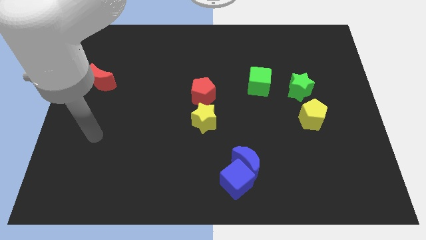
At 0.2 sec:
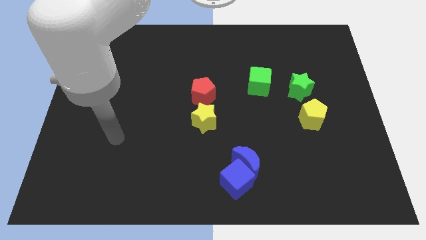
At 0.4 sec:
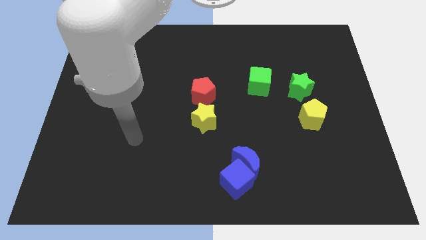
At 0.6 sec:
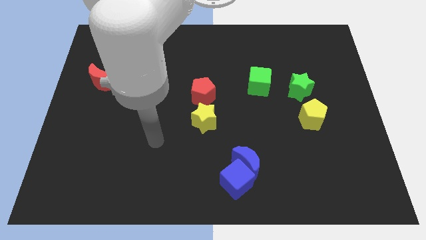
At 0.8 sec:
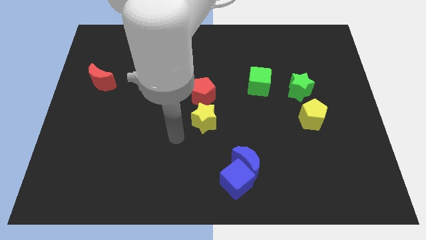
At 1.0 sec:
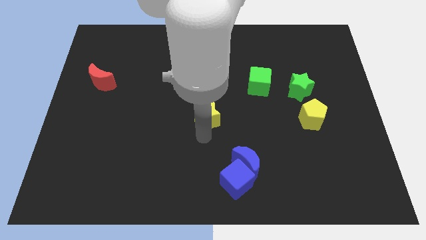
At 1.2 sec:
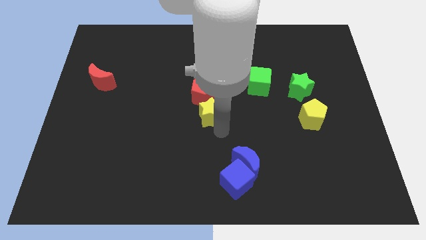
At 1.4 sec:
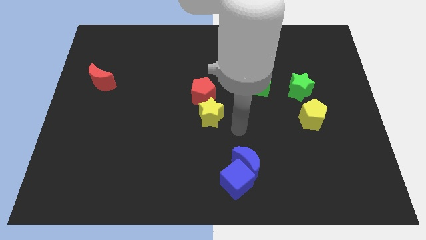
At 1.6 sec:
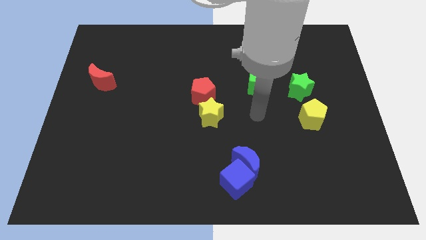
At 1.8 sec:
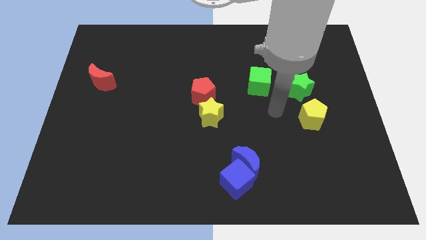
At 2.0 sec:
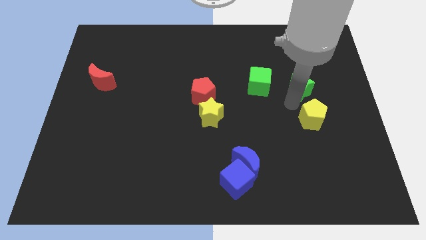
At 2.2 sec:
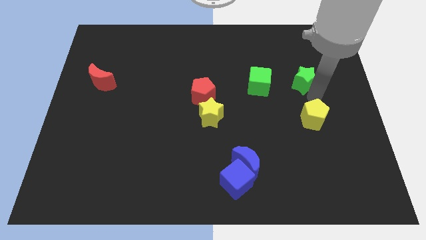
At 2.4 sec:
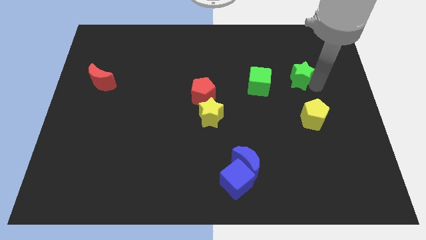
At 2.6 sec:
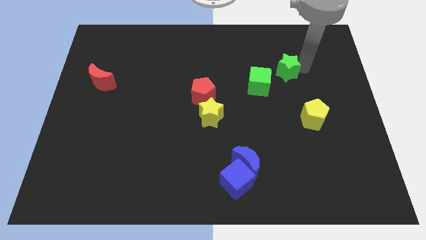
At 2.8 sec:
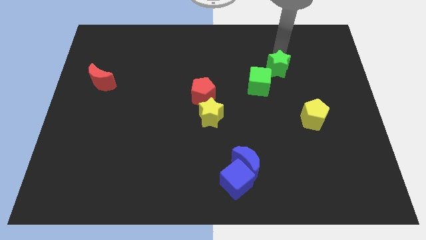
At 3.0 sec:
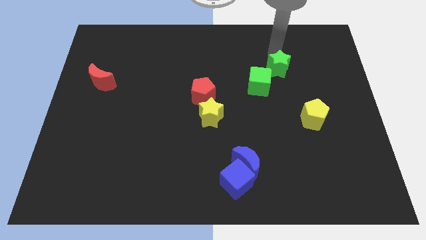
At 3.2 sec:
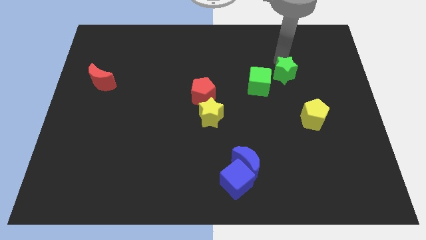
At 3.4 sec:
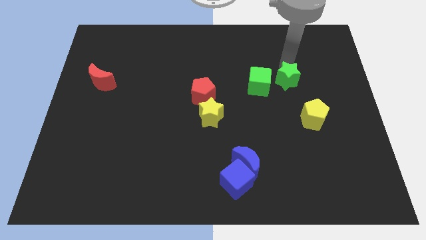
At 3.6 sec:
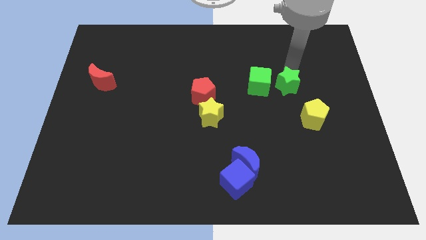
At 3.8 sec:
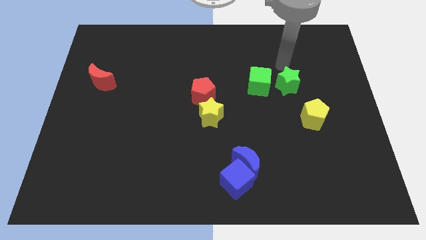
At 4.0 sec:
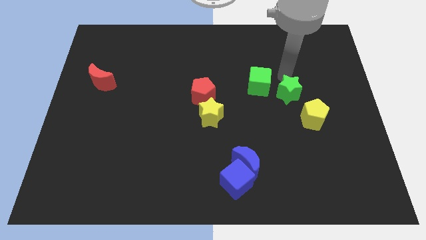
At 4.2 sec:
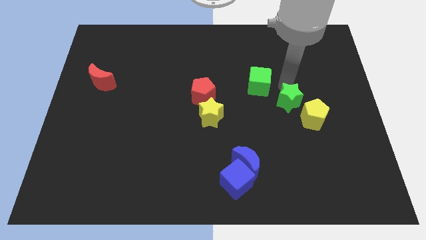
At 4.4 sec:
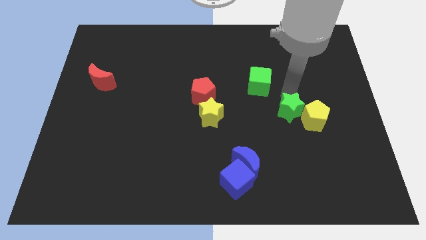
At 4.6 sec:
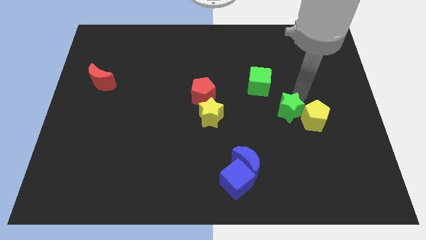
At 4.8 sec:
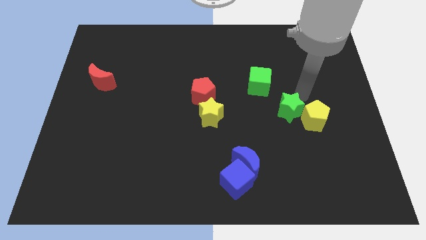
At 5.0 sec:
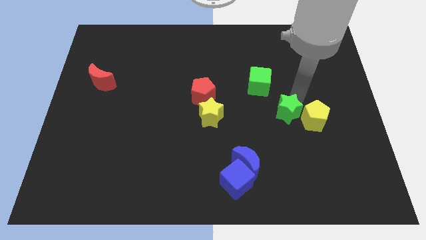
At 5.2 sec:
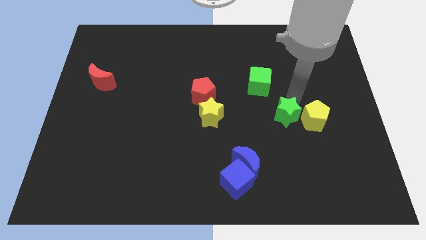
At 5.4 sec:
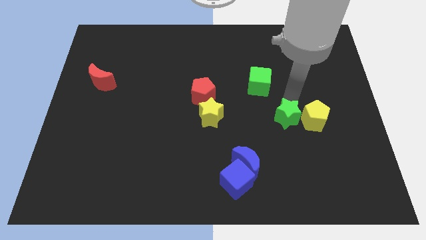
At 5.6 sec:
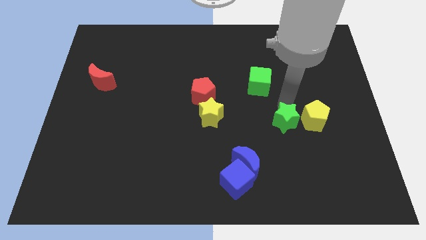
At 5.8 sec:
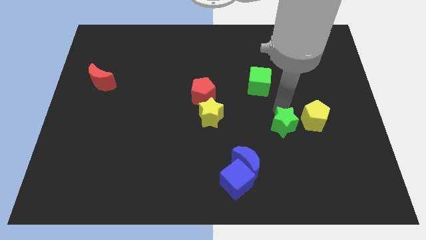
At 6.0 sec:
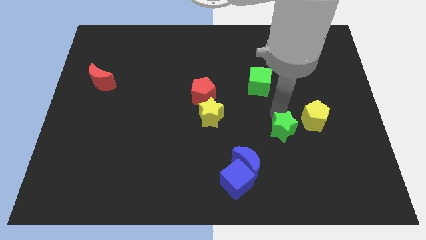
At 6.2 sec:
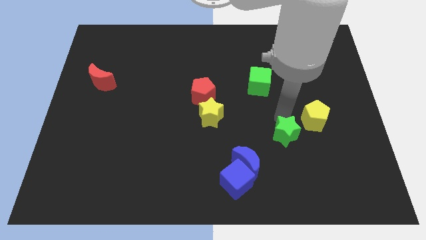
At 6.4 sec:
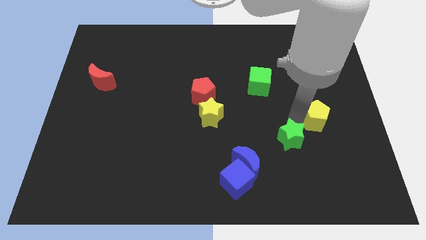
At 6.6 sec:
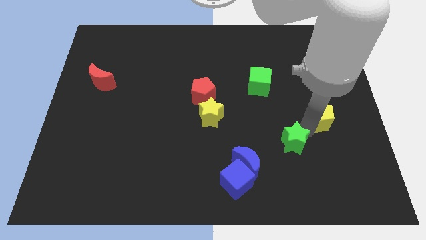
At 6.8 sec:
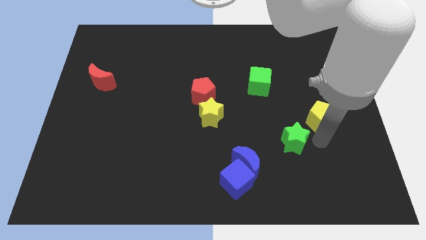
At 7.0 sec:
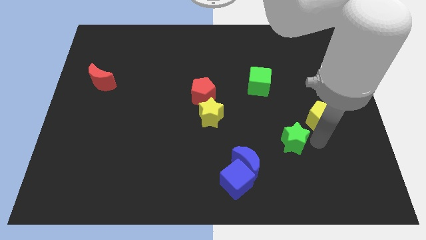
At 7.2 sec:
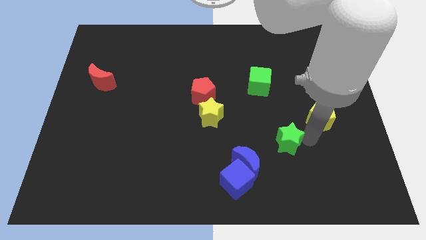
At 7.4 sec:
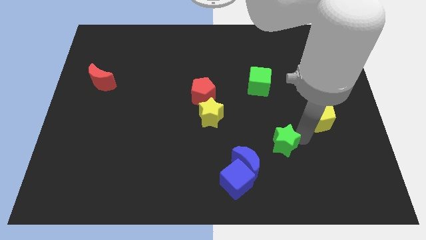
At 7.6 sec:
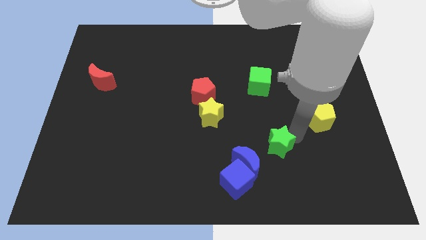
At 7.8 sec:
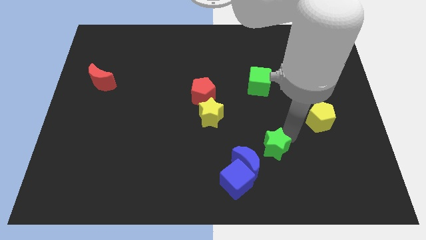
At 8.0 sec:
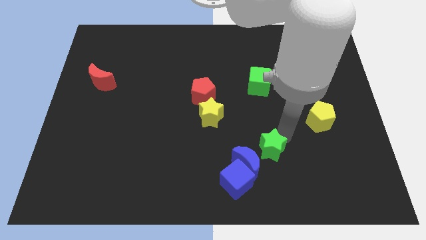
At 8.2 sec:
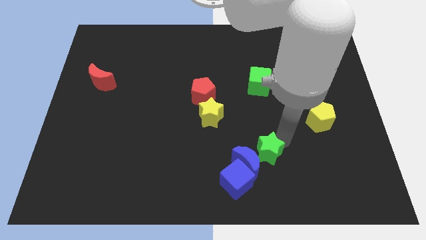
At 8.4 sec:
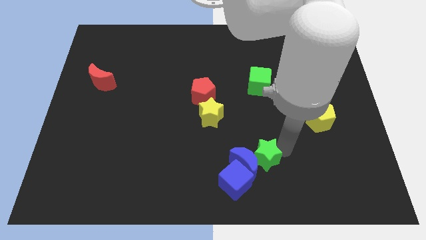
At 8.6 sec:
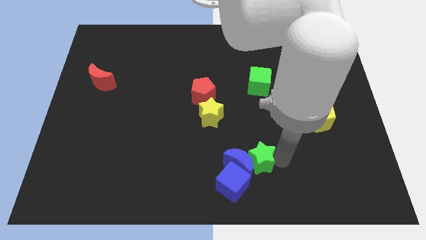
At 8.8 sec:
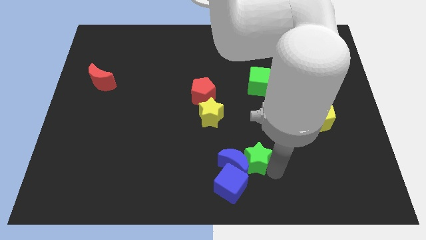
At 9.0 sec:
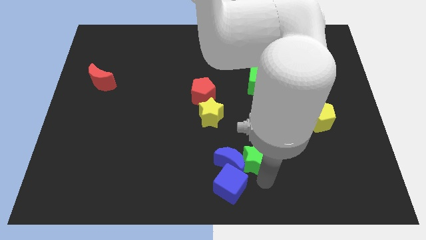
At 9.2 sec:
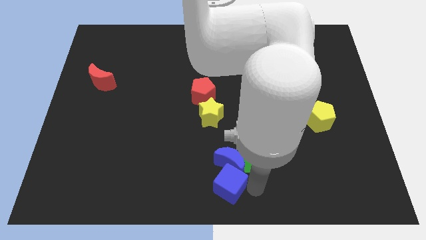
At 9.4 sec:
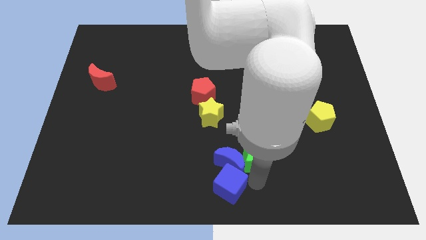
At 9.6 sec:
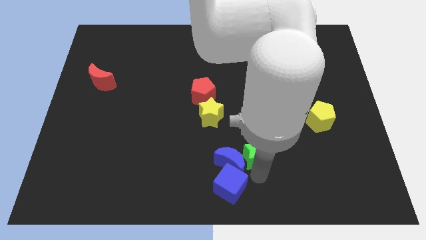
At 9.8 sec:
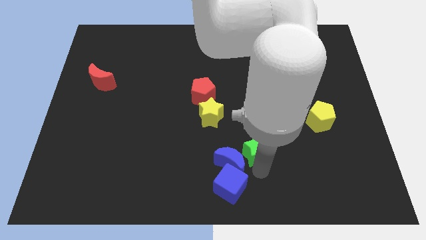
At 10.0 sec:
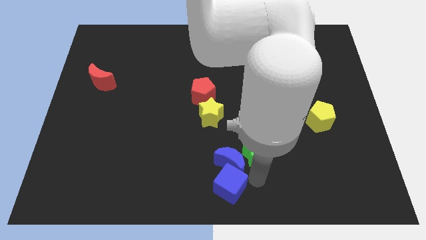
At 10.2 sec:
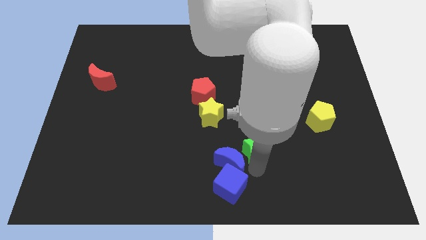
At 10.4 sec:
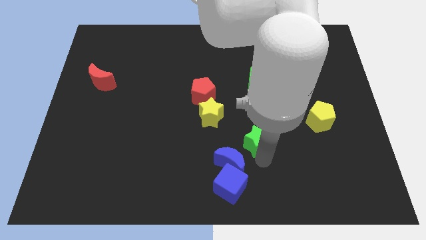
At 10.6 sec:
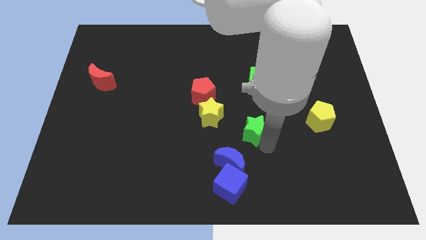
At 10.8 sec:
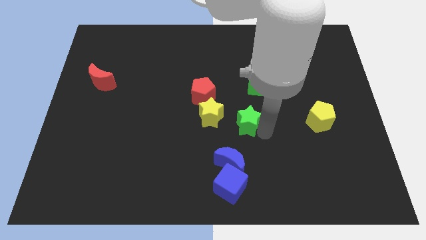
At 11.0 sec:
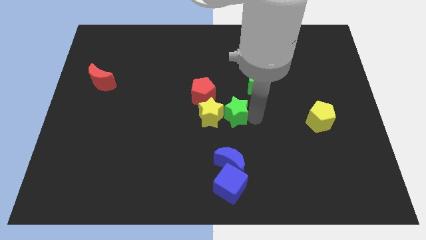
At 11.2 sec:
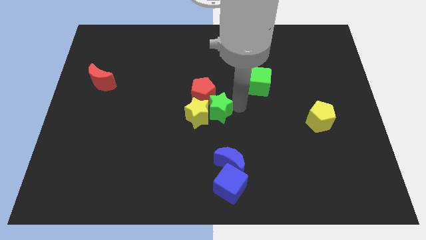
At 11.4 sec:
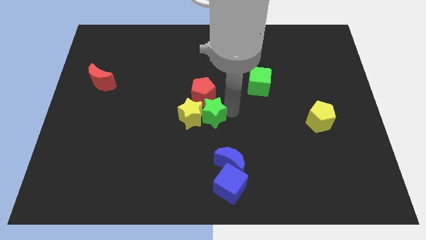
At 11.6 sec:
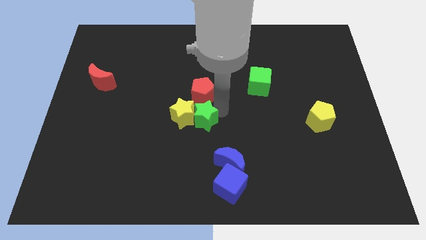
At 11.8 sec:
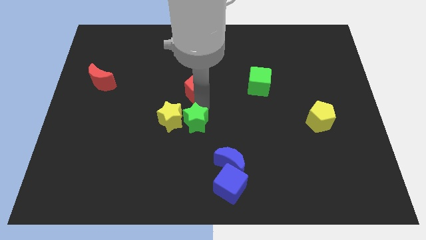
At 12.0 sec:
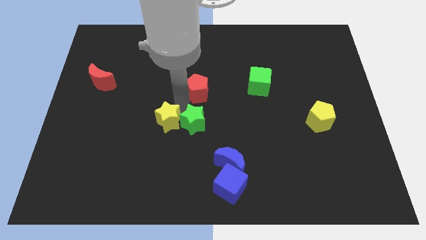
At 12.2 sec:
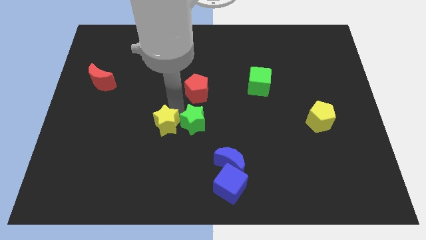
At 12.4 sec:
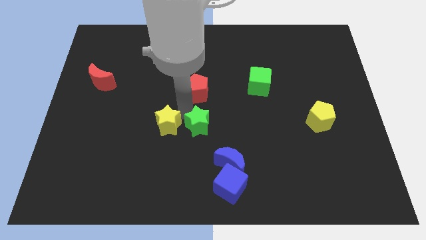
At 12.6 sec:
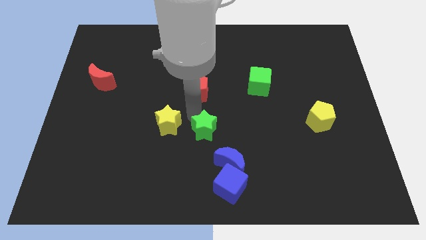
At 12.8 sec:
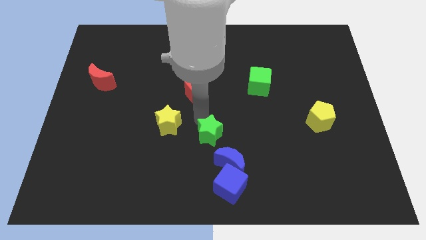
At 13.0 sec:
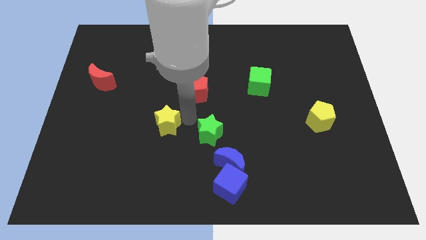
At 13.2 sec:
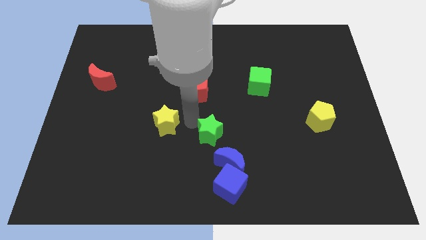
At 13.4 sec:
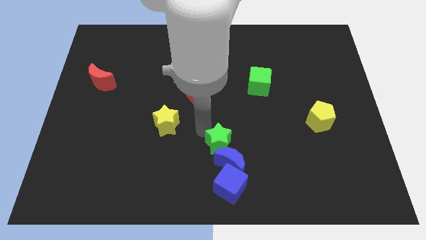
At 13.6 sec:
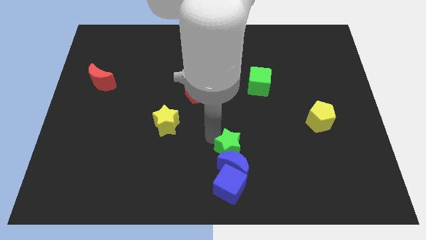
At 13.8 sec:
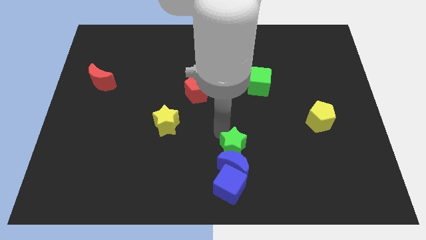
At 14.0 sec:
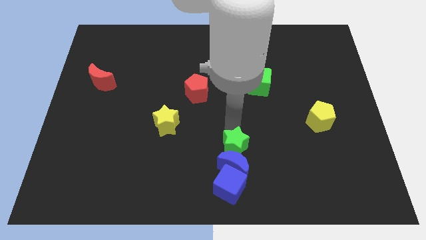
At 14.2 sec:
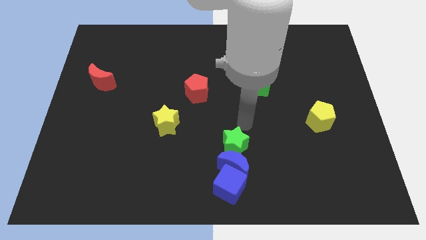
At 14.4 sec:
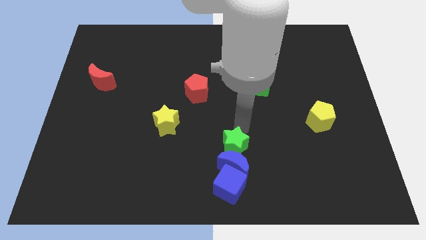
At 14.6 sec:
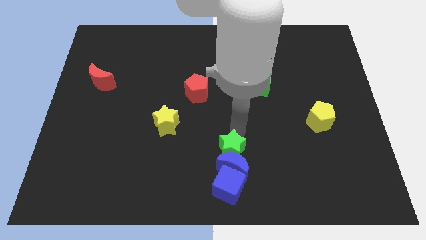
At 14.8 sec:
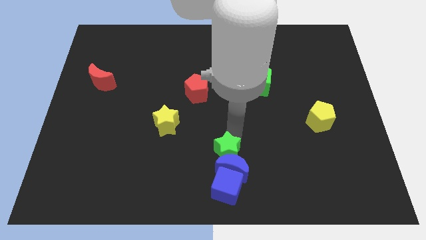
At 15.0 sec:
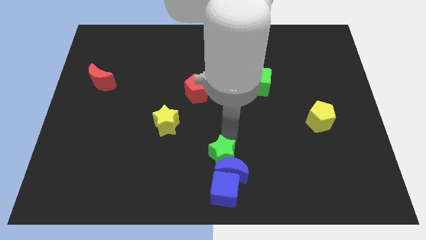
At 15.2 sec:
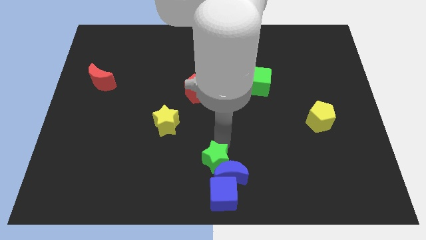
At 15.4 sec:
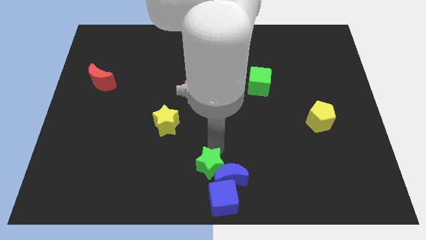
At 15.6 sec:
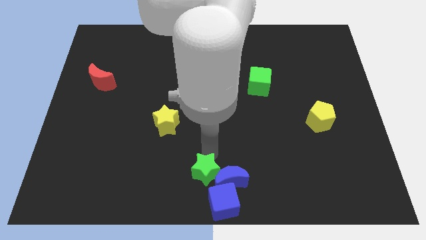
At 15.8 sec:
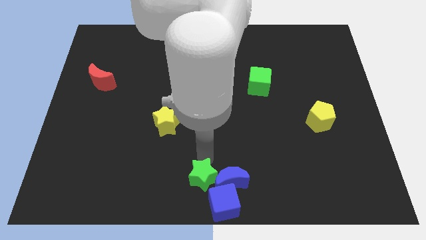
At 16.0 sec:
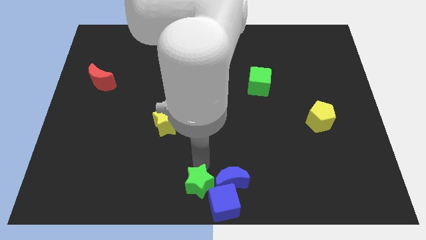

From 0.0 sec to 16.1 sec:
put the green star to the blue cube
